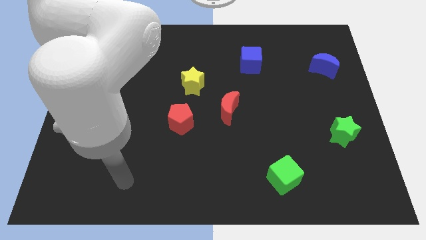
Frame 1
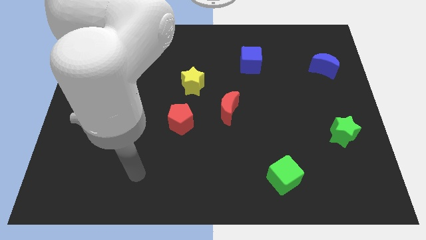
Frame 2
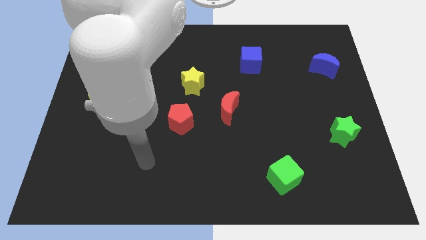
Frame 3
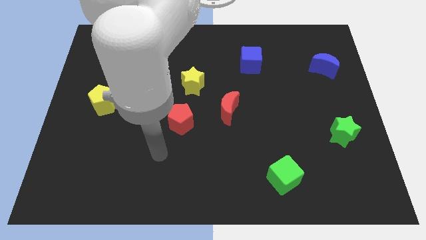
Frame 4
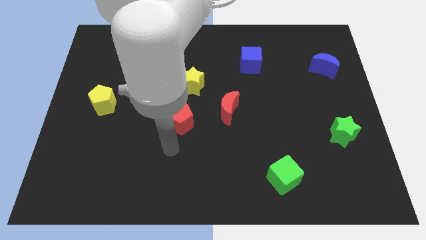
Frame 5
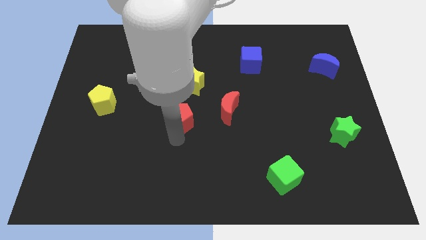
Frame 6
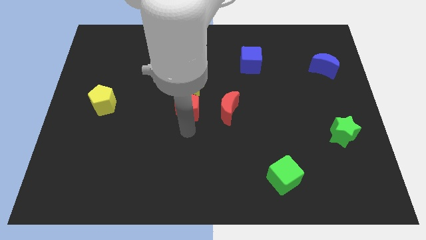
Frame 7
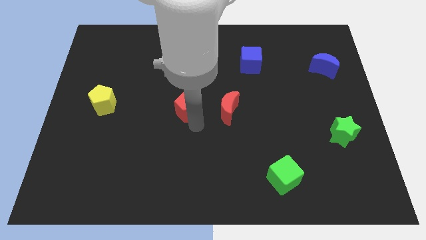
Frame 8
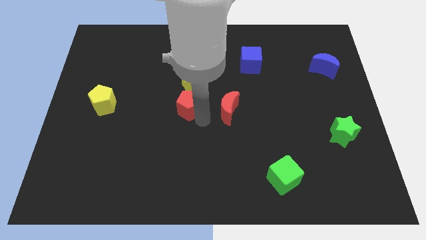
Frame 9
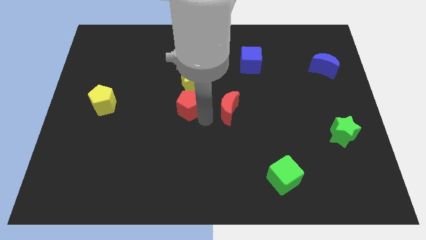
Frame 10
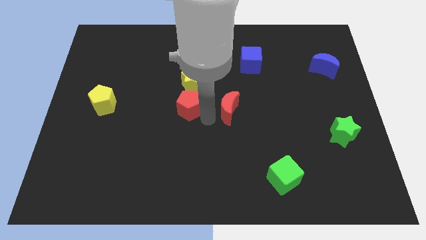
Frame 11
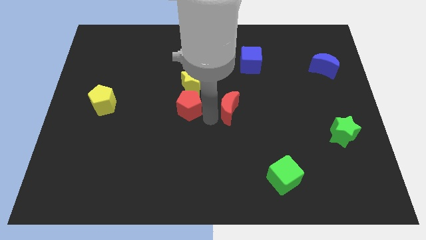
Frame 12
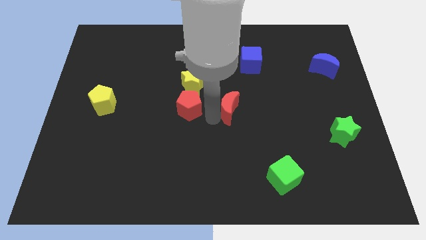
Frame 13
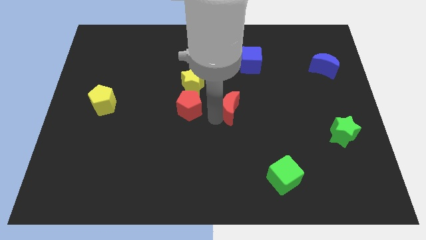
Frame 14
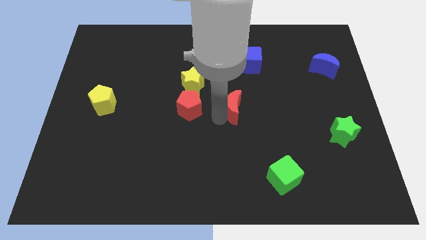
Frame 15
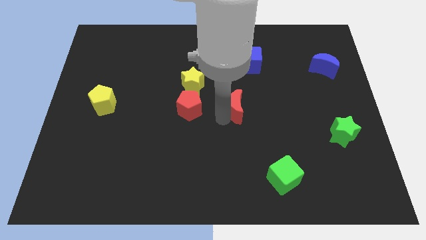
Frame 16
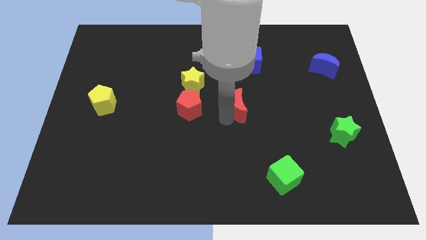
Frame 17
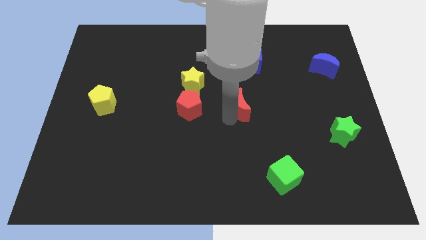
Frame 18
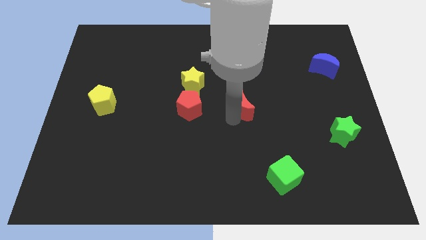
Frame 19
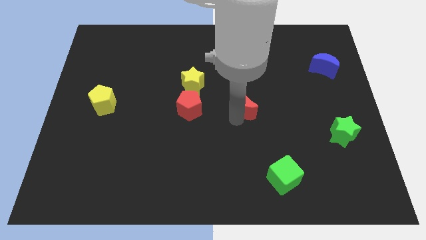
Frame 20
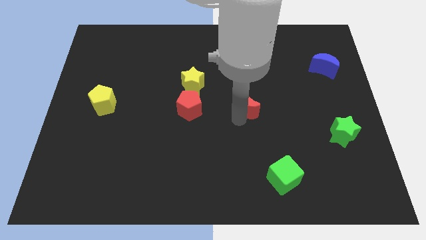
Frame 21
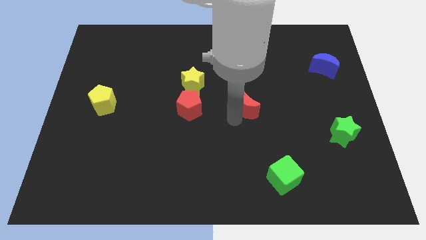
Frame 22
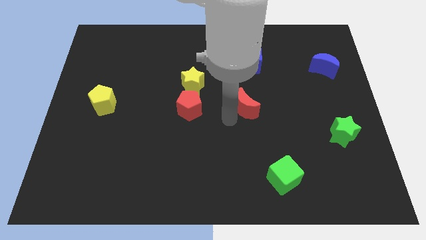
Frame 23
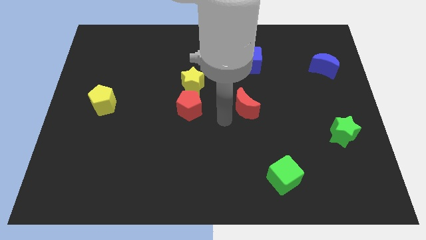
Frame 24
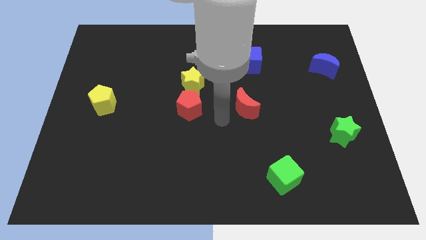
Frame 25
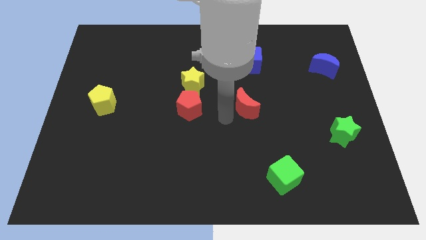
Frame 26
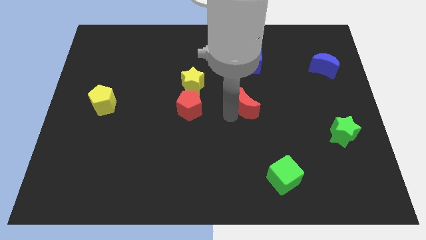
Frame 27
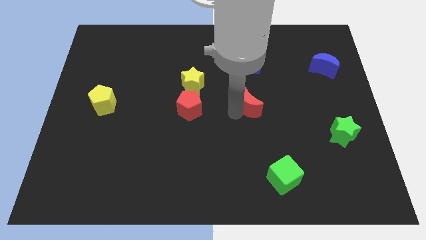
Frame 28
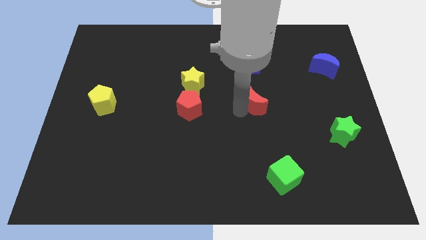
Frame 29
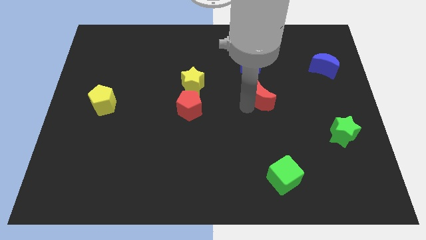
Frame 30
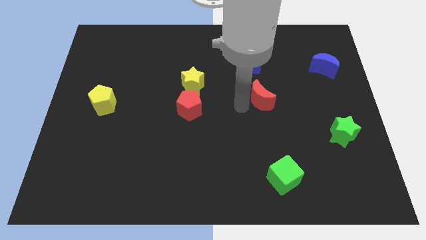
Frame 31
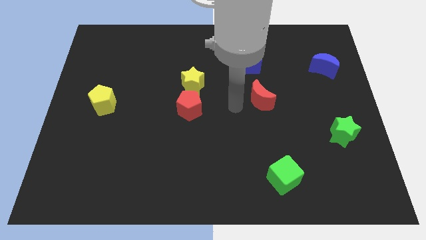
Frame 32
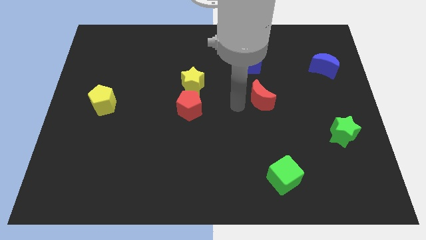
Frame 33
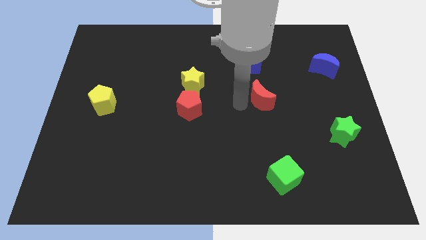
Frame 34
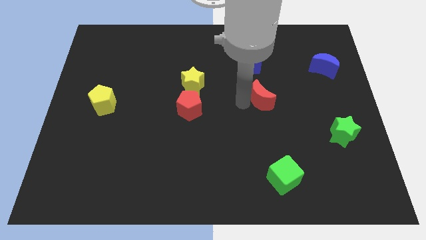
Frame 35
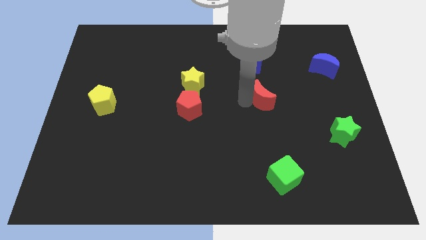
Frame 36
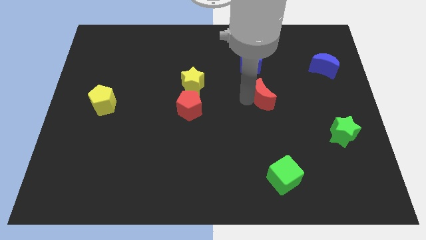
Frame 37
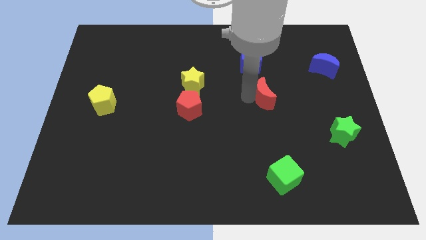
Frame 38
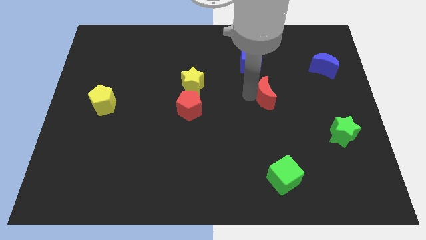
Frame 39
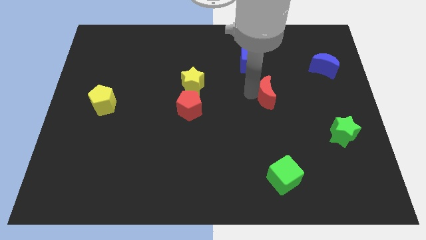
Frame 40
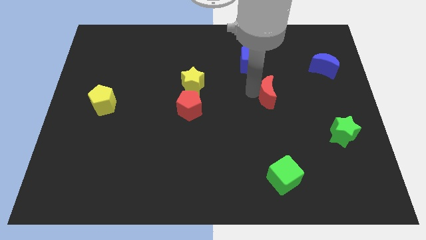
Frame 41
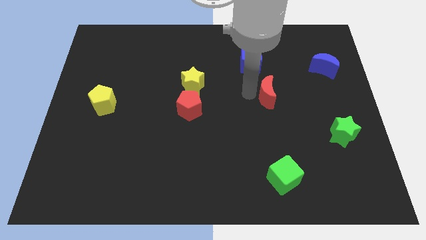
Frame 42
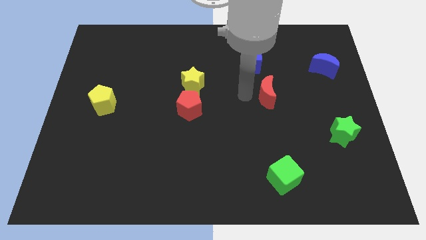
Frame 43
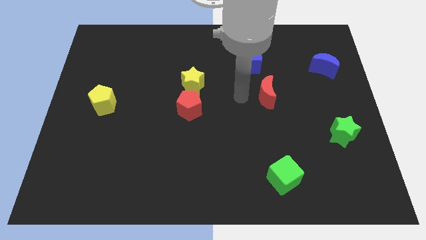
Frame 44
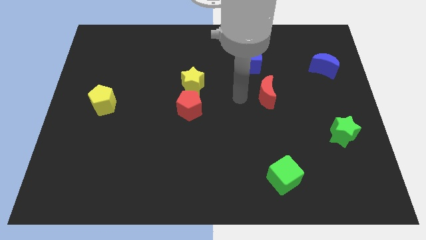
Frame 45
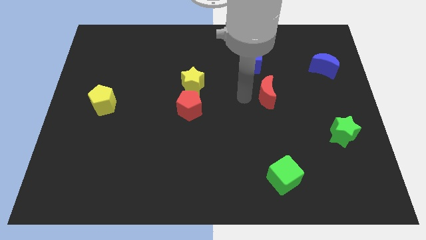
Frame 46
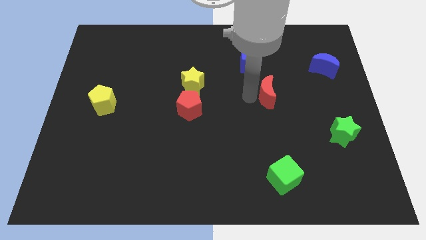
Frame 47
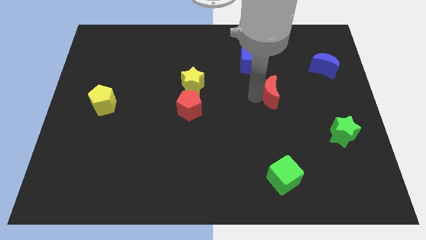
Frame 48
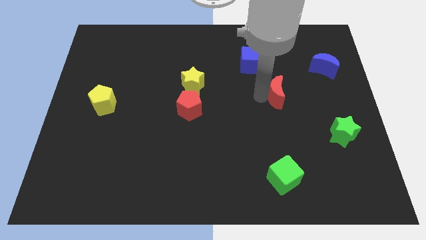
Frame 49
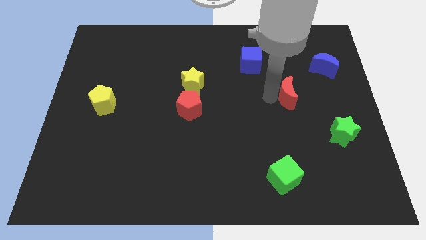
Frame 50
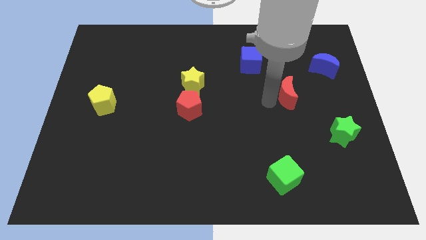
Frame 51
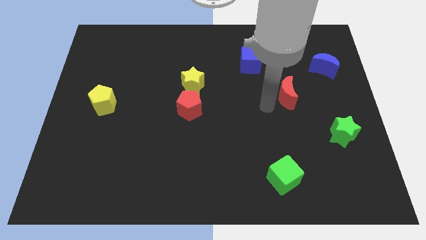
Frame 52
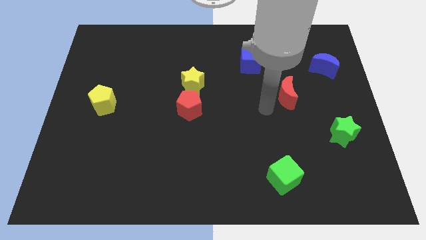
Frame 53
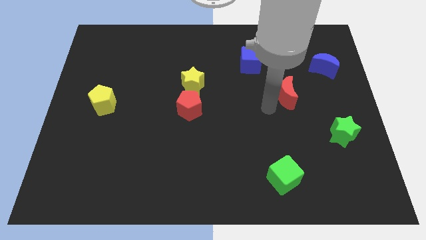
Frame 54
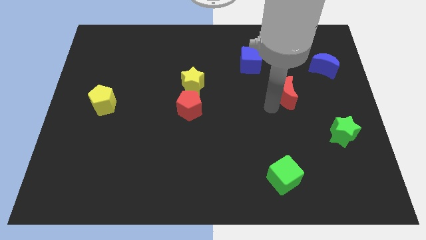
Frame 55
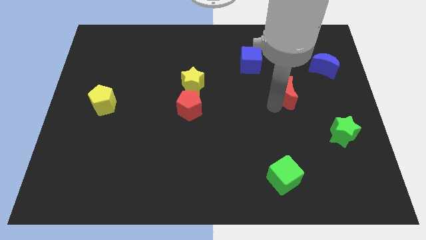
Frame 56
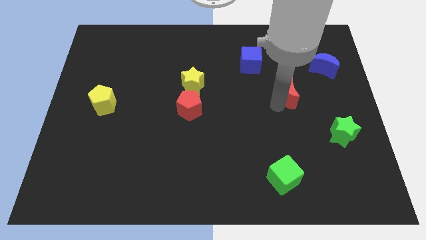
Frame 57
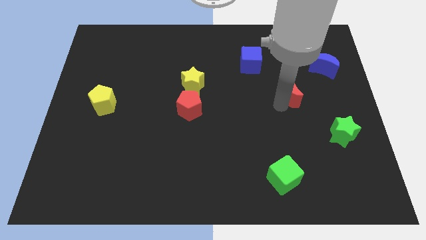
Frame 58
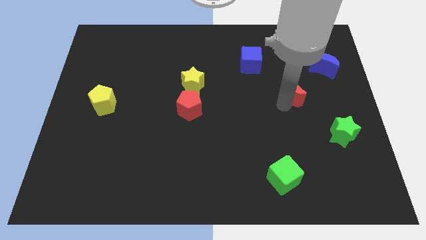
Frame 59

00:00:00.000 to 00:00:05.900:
push the red moon to the bottom left of the blue moon

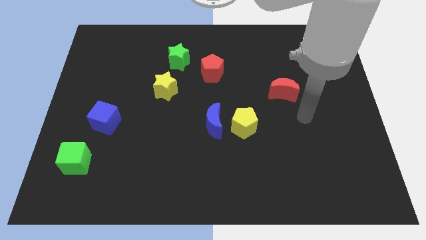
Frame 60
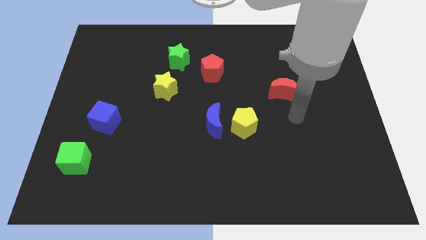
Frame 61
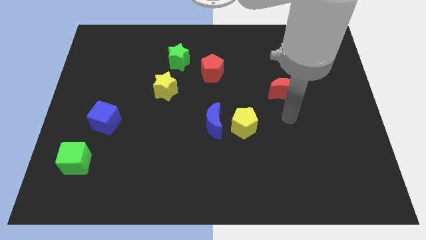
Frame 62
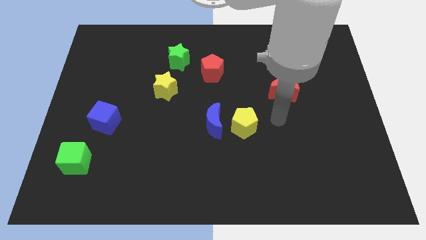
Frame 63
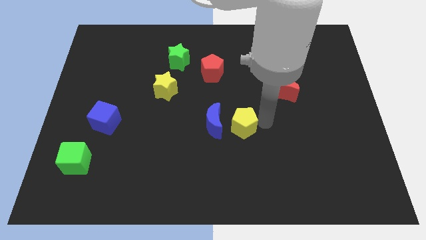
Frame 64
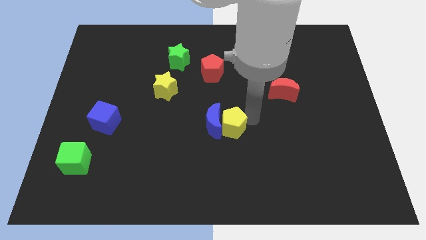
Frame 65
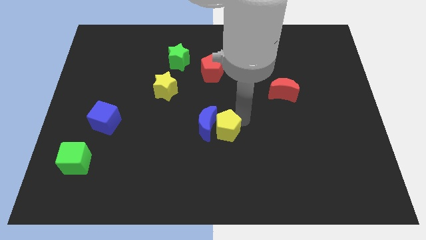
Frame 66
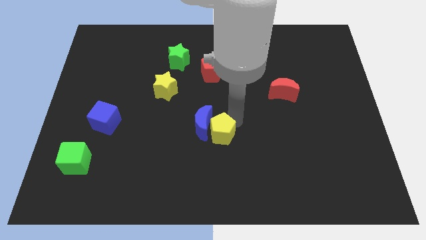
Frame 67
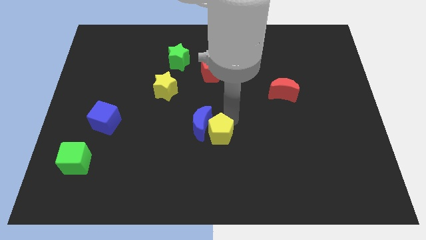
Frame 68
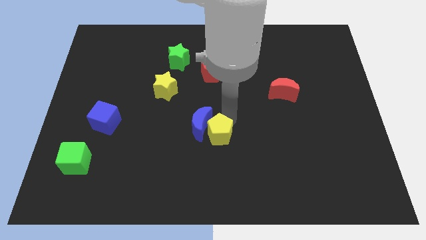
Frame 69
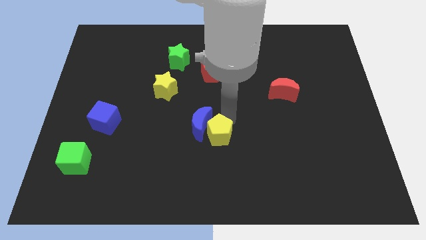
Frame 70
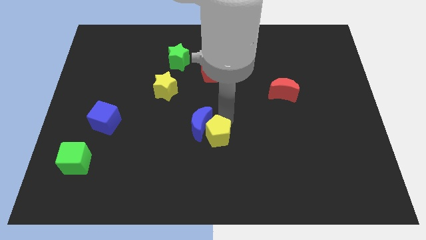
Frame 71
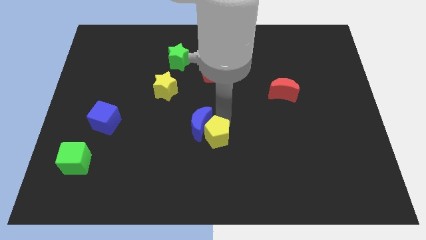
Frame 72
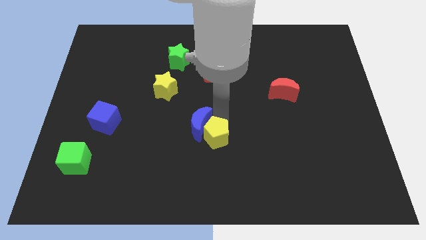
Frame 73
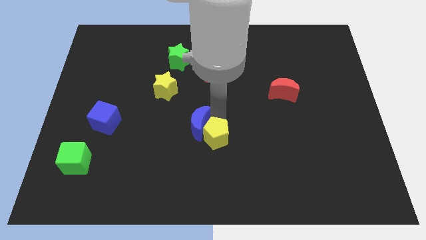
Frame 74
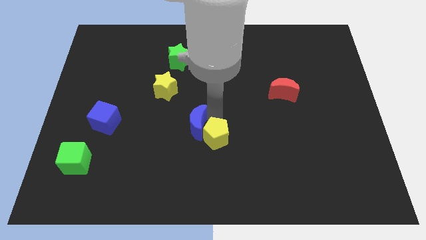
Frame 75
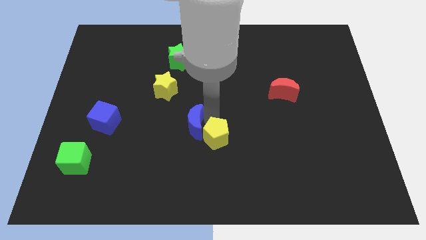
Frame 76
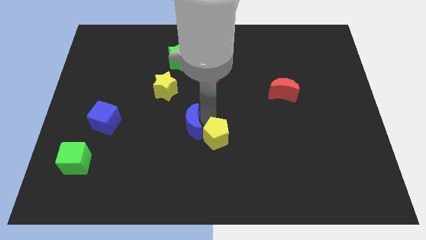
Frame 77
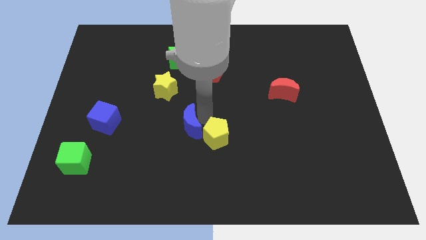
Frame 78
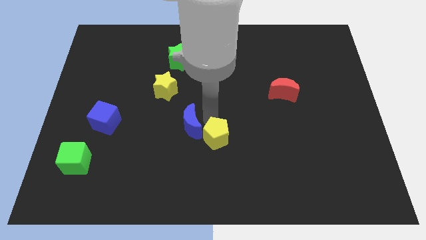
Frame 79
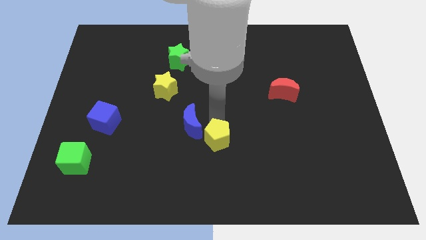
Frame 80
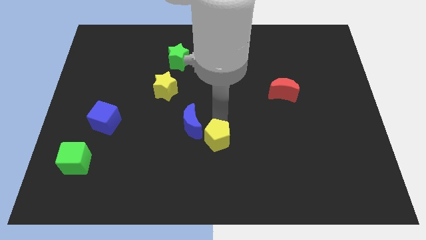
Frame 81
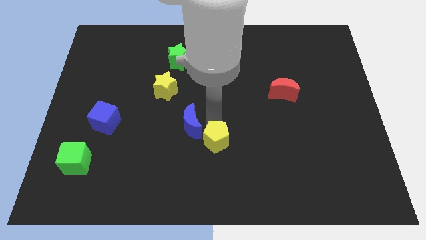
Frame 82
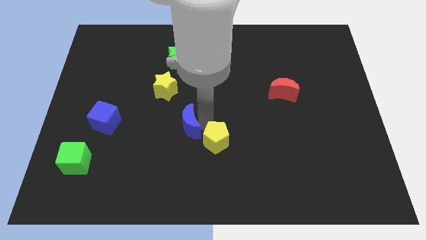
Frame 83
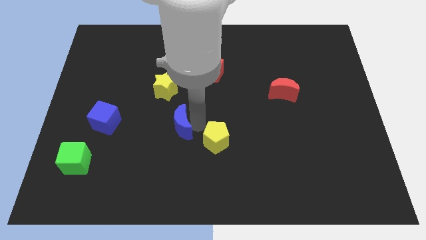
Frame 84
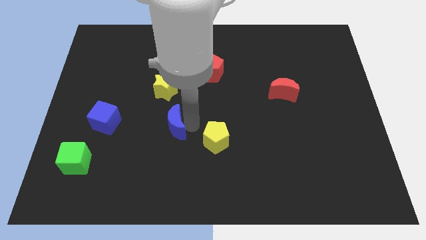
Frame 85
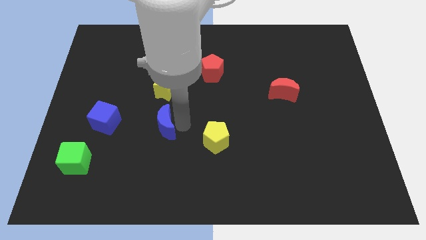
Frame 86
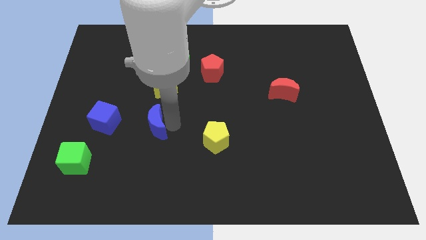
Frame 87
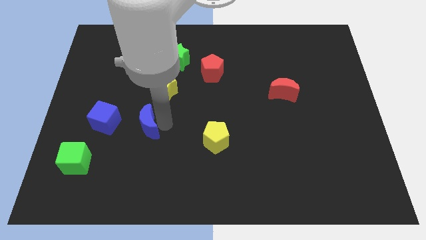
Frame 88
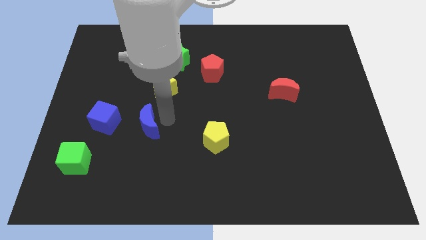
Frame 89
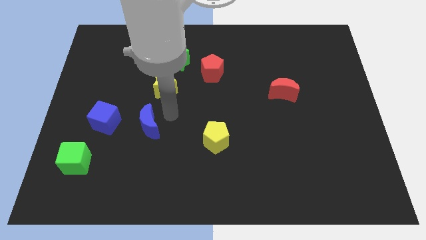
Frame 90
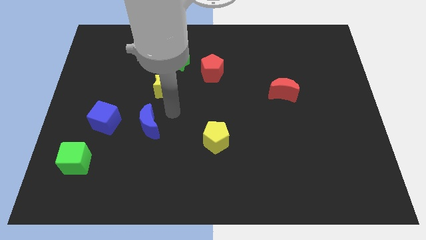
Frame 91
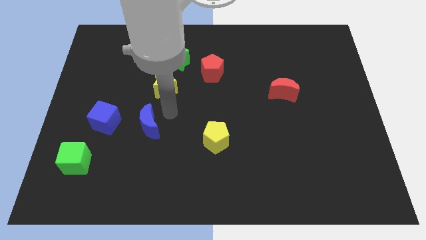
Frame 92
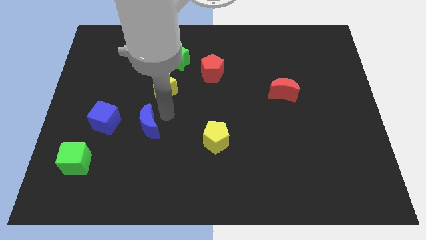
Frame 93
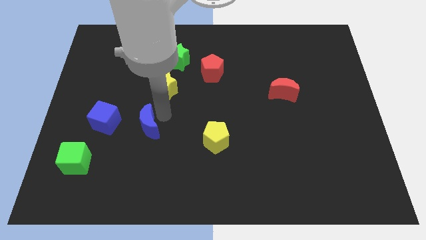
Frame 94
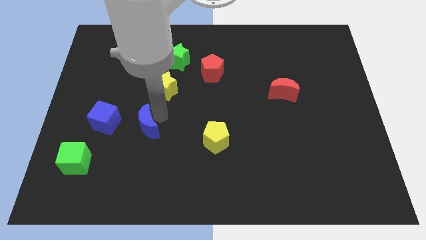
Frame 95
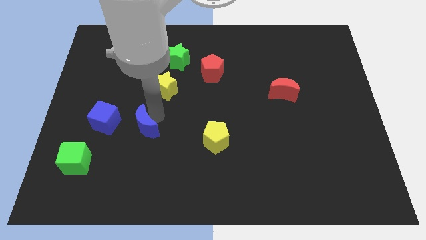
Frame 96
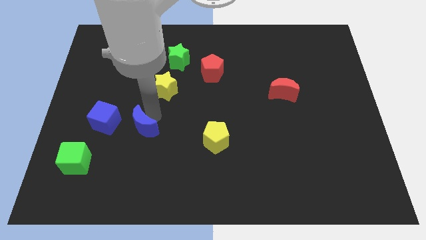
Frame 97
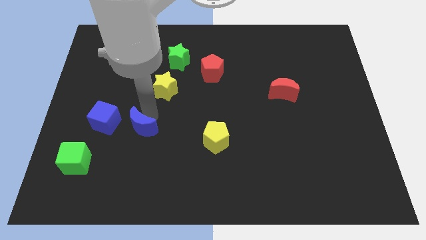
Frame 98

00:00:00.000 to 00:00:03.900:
put the blue moon to the bottom right of the blue cube
